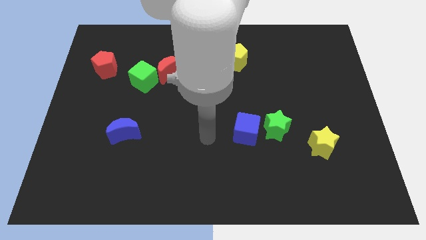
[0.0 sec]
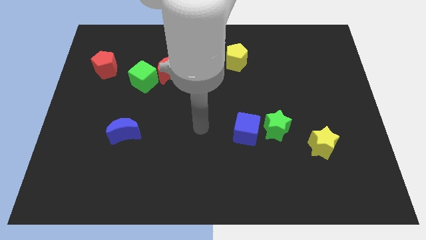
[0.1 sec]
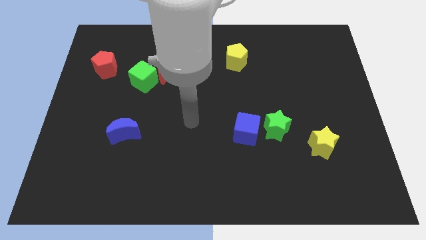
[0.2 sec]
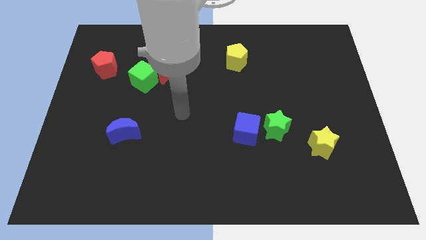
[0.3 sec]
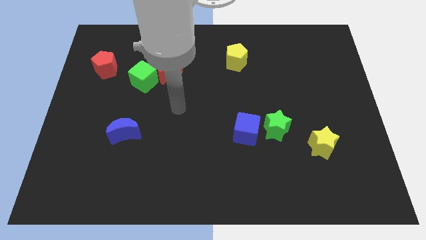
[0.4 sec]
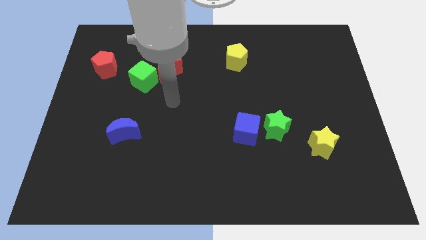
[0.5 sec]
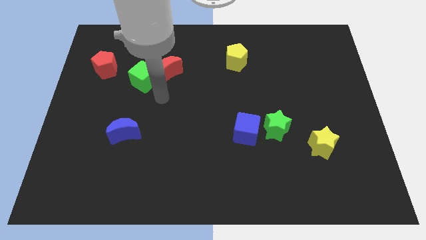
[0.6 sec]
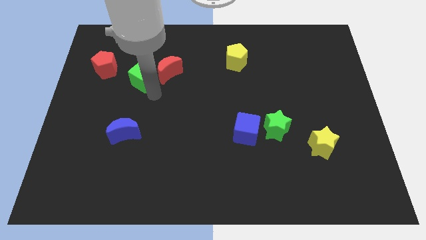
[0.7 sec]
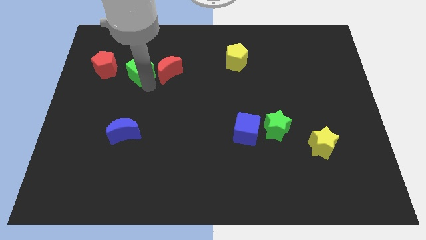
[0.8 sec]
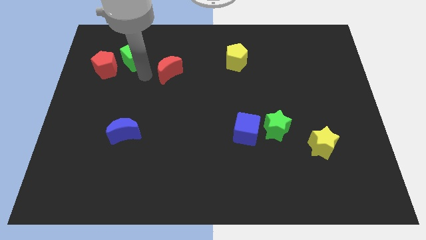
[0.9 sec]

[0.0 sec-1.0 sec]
pull the red moon apart from the green cube

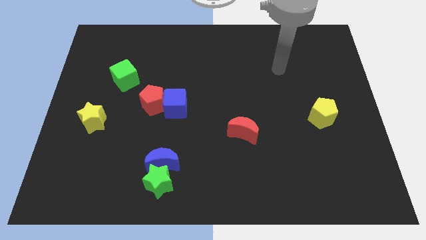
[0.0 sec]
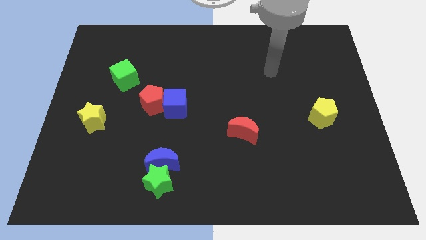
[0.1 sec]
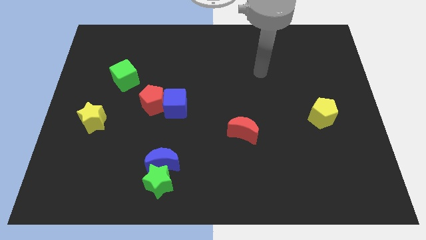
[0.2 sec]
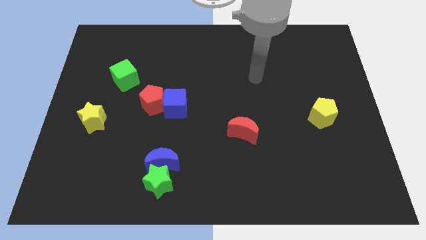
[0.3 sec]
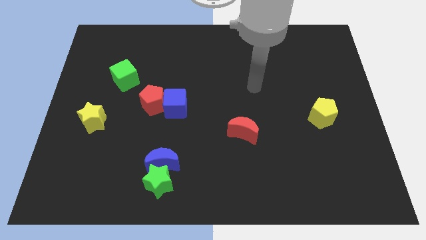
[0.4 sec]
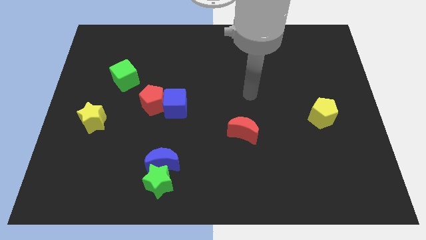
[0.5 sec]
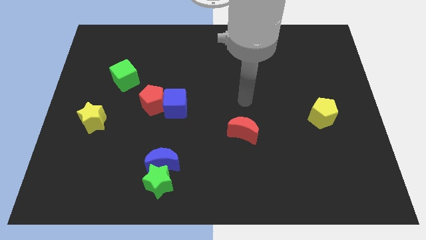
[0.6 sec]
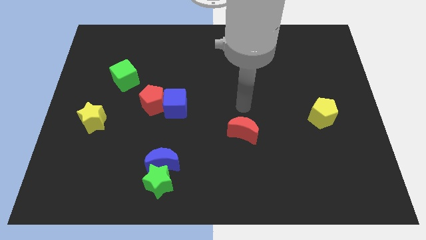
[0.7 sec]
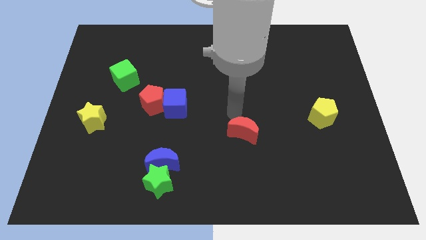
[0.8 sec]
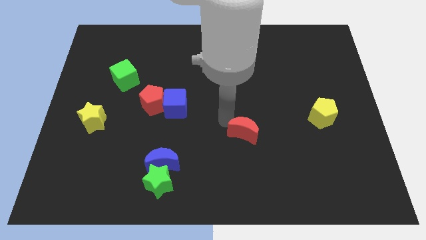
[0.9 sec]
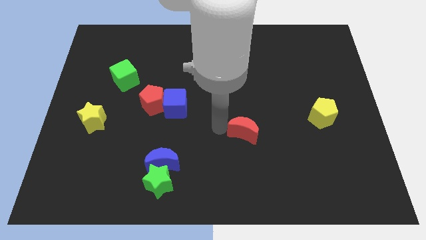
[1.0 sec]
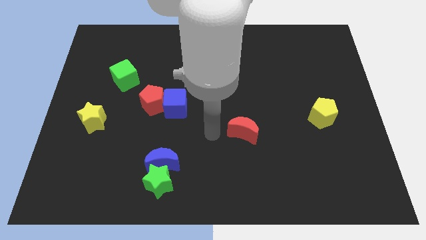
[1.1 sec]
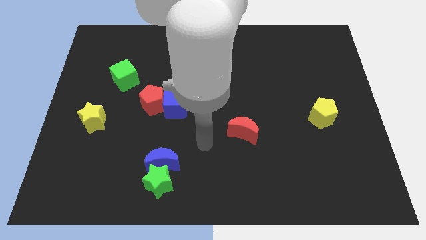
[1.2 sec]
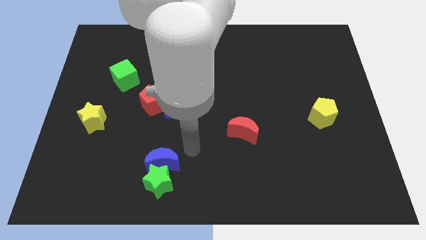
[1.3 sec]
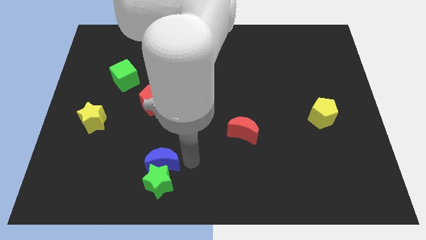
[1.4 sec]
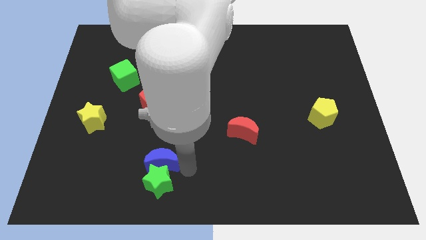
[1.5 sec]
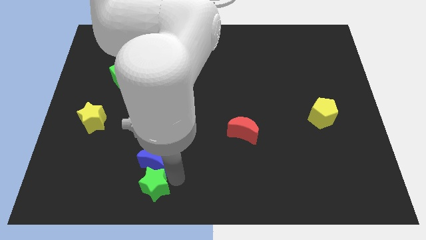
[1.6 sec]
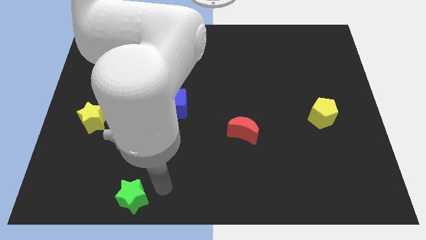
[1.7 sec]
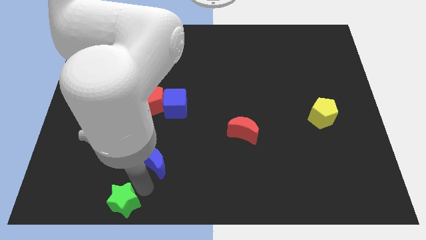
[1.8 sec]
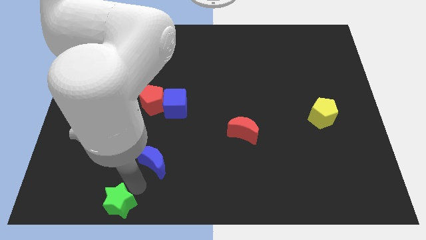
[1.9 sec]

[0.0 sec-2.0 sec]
pull the blue moon apart from the green star

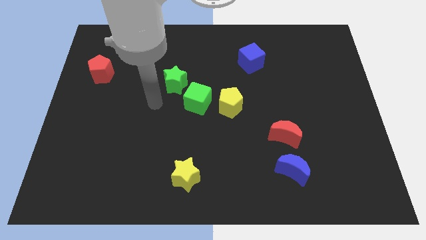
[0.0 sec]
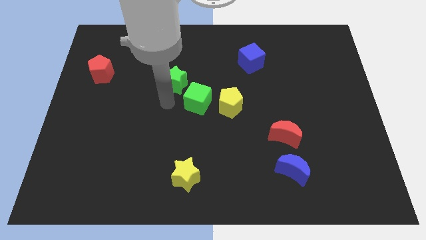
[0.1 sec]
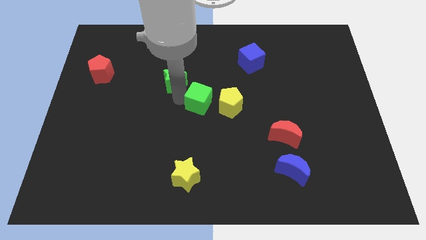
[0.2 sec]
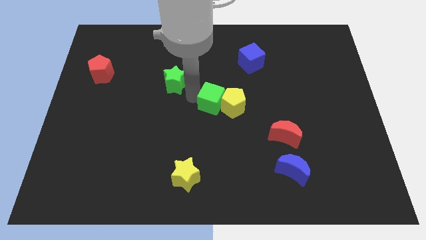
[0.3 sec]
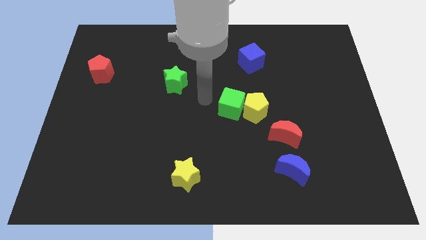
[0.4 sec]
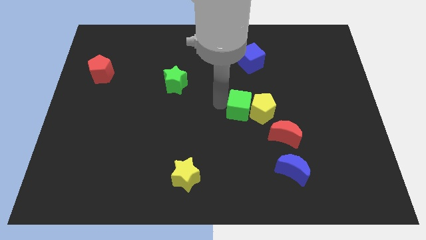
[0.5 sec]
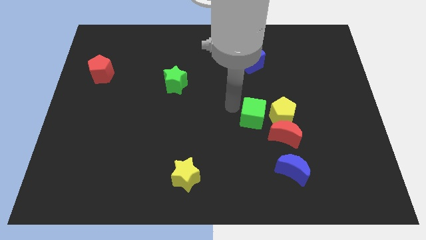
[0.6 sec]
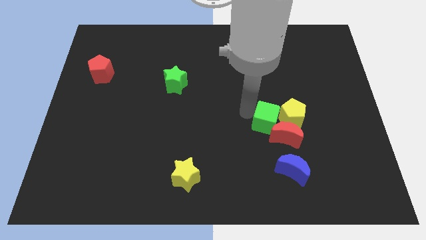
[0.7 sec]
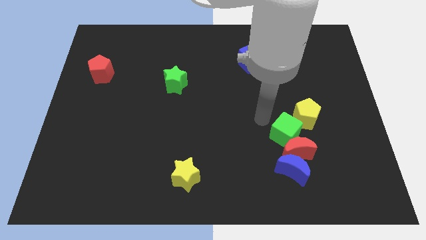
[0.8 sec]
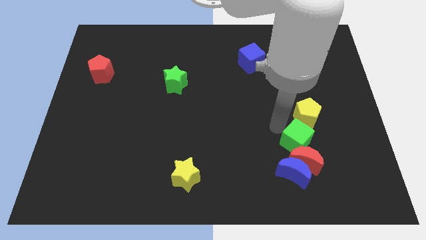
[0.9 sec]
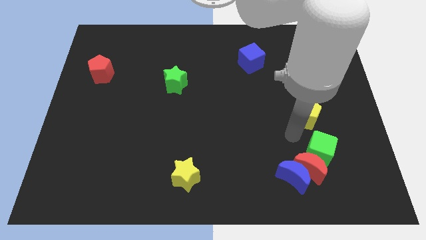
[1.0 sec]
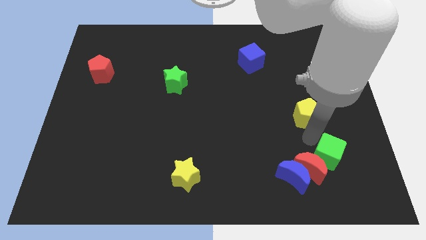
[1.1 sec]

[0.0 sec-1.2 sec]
separate the yellow pentagon from the green cube

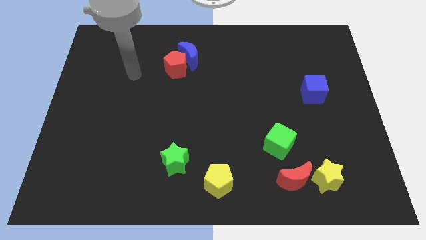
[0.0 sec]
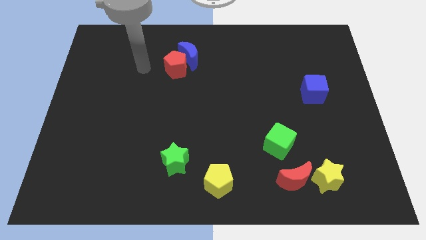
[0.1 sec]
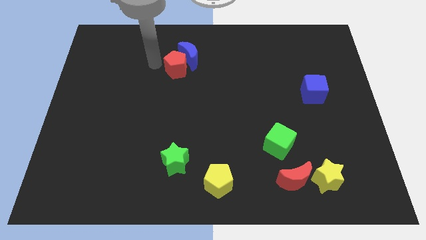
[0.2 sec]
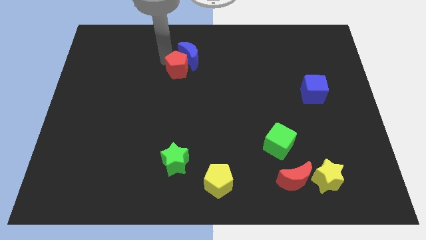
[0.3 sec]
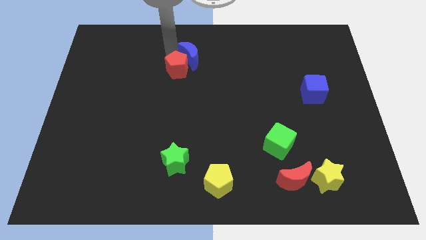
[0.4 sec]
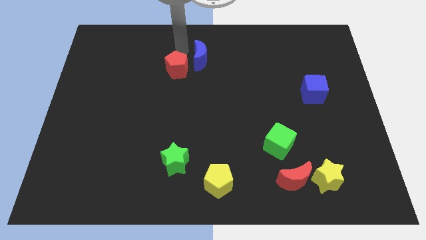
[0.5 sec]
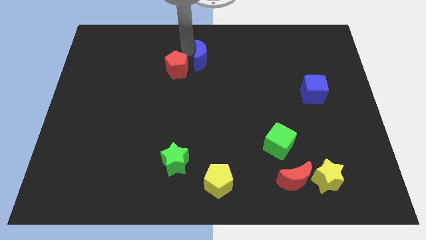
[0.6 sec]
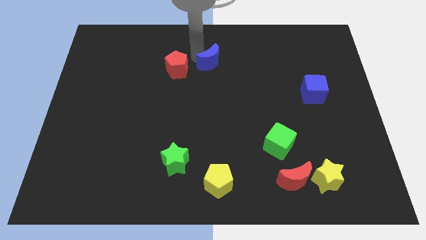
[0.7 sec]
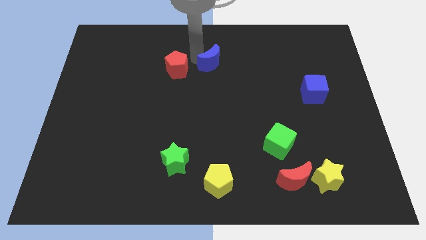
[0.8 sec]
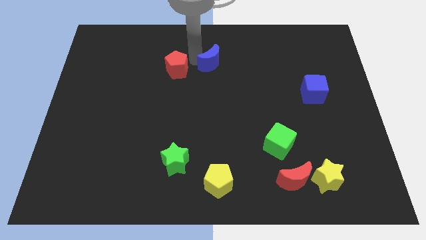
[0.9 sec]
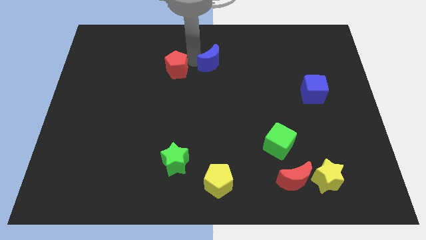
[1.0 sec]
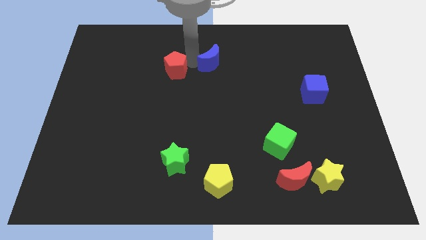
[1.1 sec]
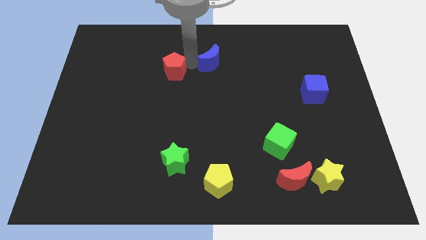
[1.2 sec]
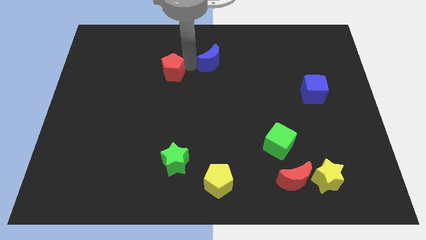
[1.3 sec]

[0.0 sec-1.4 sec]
pull the red pentagon apart from the blue moon

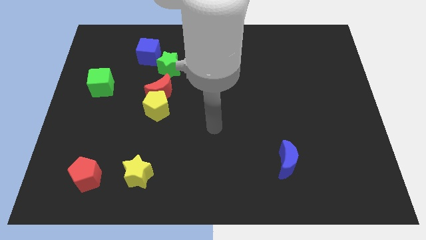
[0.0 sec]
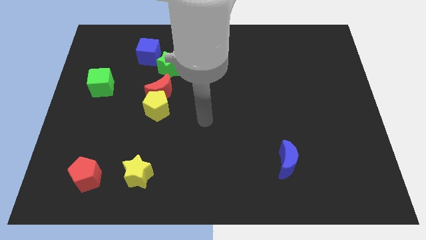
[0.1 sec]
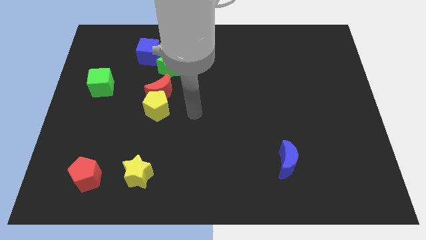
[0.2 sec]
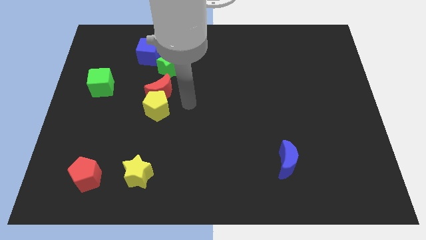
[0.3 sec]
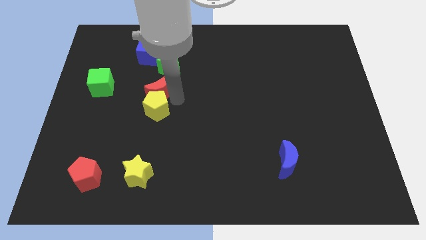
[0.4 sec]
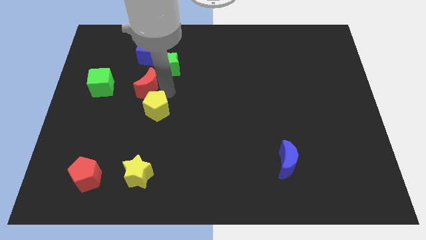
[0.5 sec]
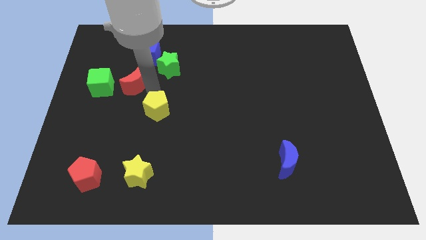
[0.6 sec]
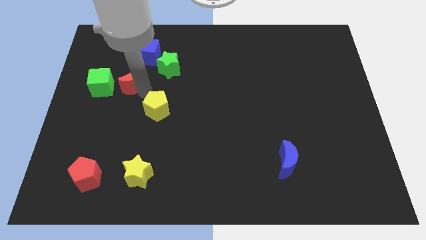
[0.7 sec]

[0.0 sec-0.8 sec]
separate the yellow pentagon from the red moon

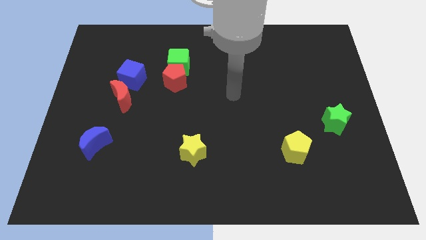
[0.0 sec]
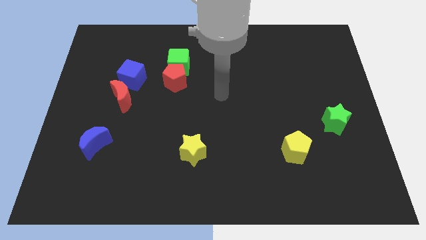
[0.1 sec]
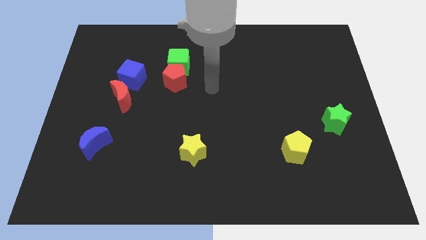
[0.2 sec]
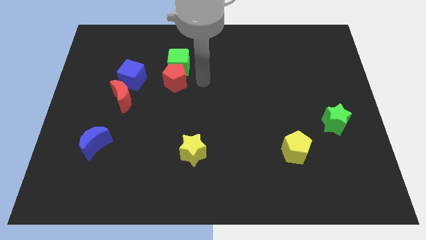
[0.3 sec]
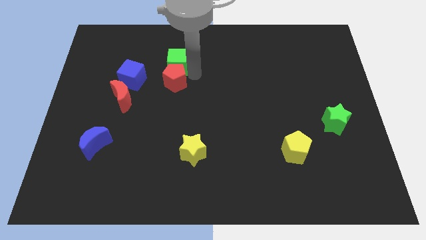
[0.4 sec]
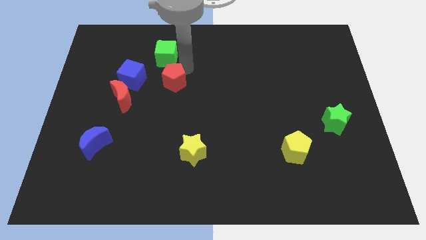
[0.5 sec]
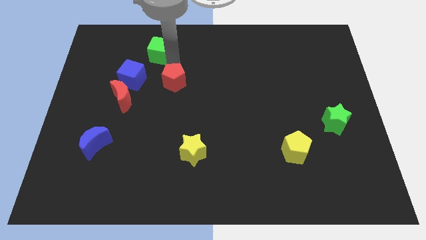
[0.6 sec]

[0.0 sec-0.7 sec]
move the red pentagon away from the green cube

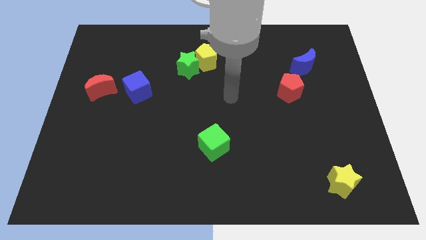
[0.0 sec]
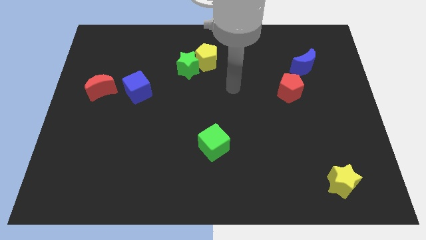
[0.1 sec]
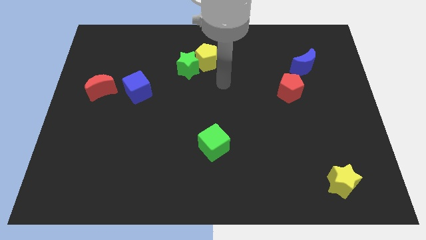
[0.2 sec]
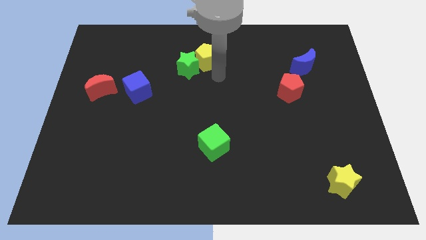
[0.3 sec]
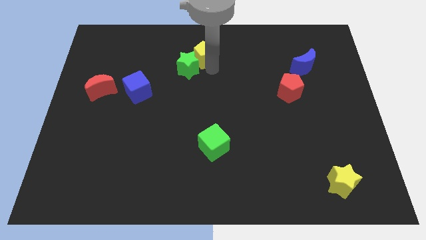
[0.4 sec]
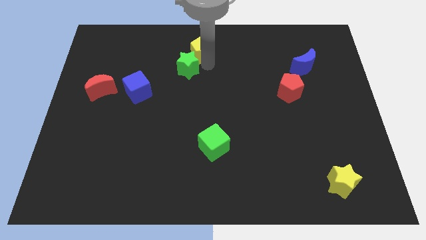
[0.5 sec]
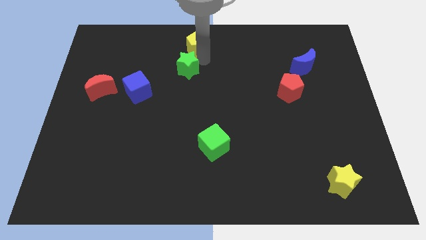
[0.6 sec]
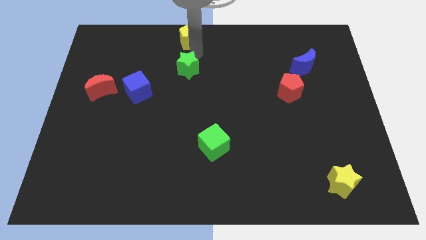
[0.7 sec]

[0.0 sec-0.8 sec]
move the green star away from the yellow pentagon

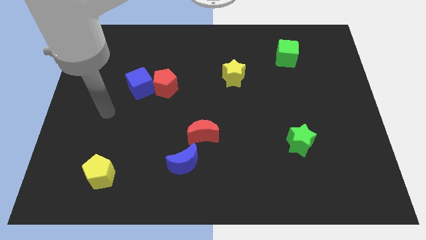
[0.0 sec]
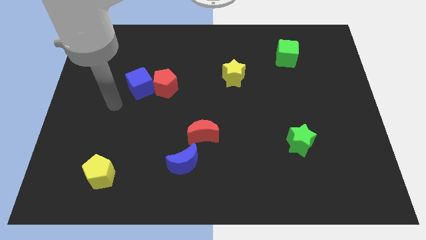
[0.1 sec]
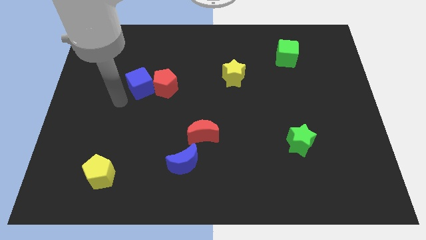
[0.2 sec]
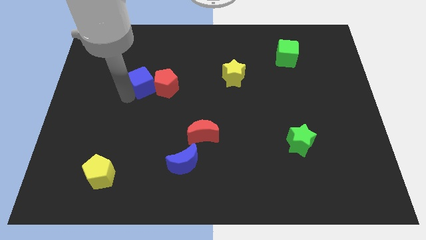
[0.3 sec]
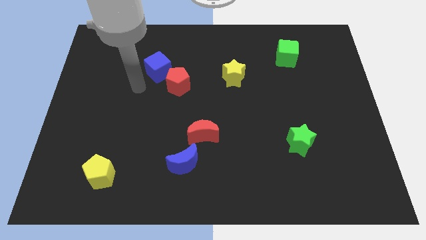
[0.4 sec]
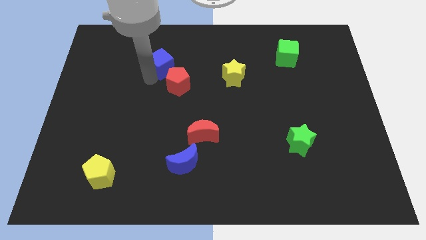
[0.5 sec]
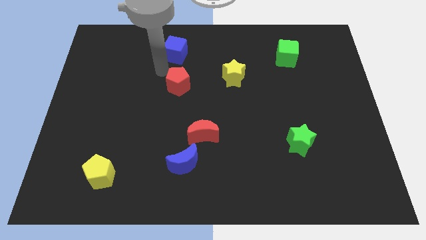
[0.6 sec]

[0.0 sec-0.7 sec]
move the red pentagon away from the blue cube

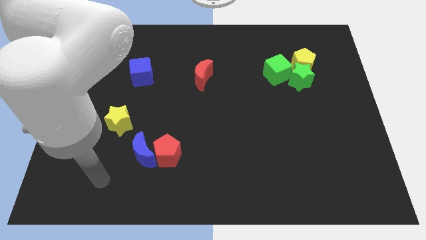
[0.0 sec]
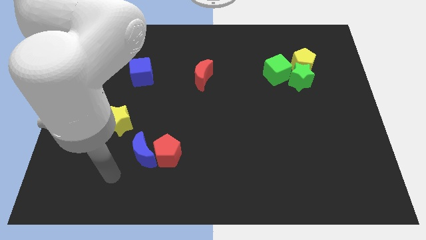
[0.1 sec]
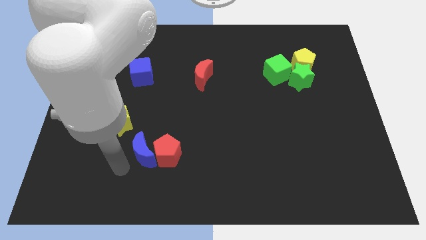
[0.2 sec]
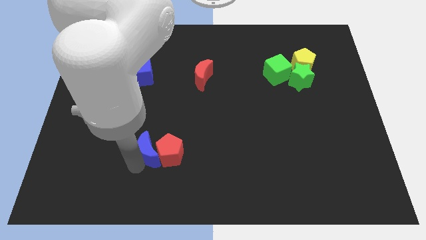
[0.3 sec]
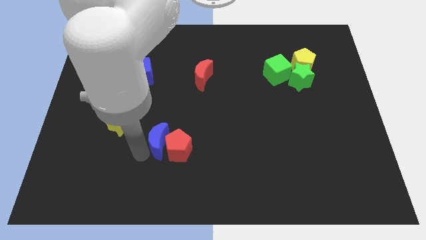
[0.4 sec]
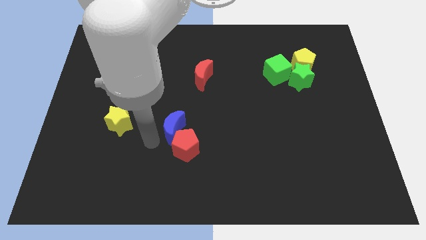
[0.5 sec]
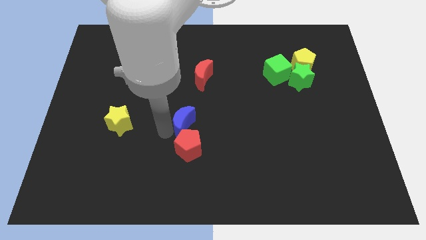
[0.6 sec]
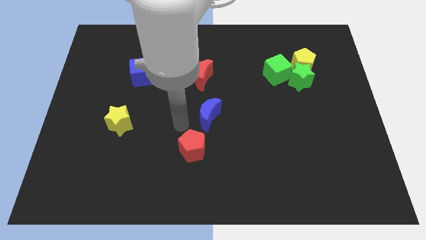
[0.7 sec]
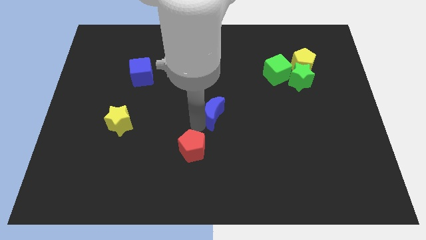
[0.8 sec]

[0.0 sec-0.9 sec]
separate the red pentagon from the blue moon
